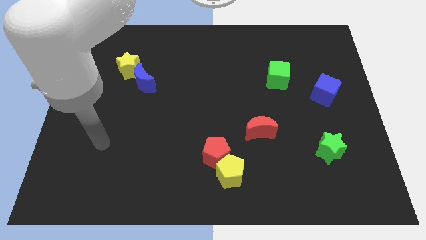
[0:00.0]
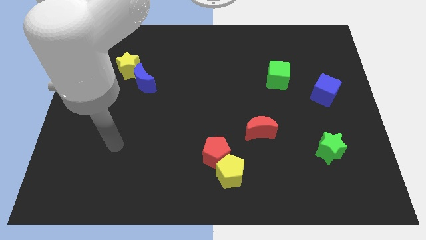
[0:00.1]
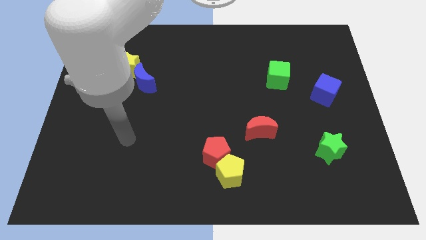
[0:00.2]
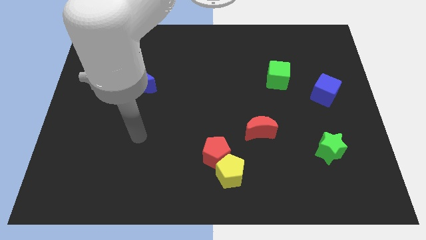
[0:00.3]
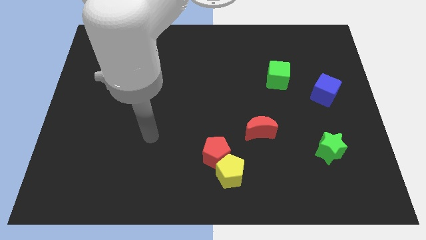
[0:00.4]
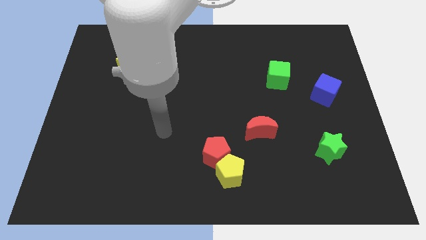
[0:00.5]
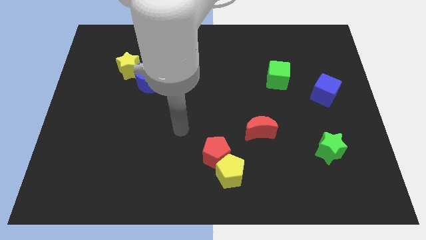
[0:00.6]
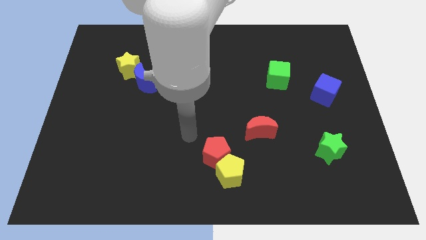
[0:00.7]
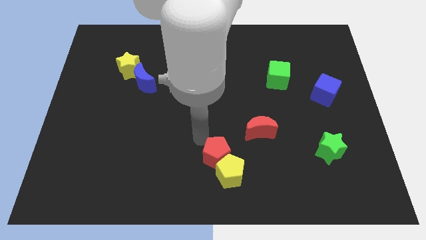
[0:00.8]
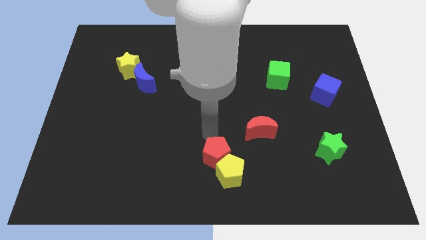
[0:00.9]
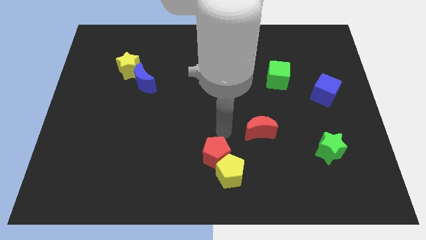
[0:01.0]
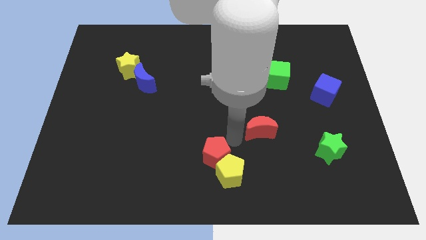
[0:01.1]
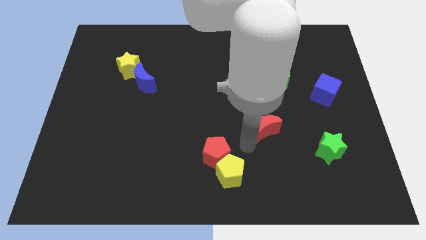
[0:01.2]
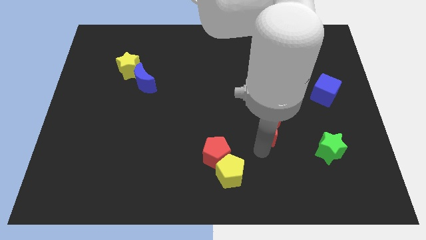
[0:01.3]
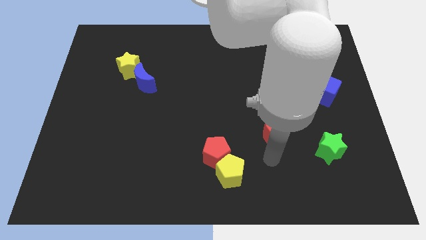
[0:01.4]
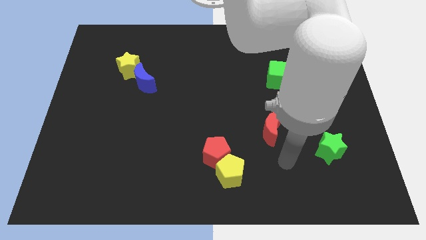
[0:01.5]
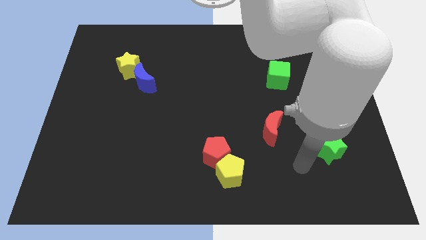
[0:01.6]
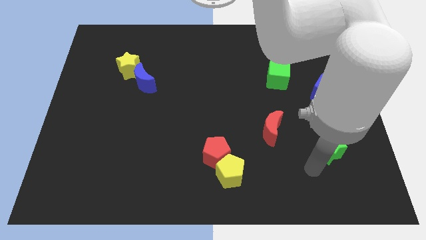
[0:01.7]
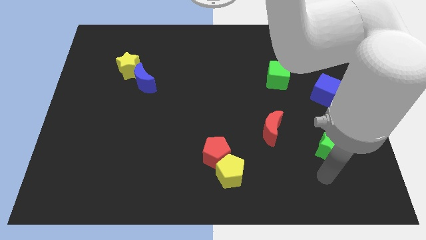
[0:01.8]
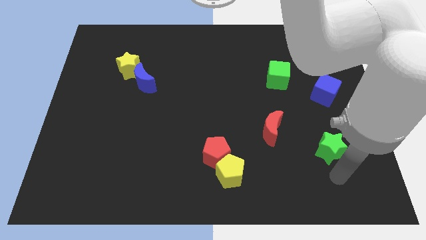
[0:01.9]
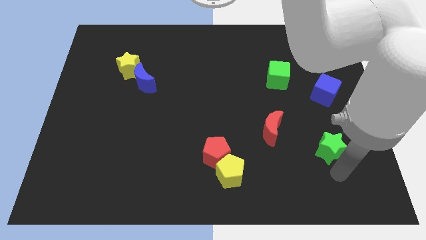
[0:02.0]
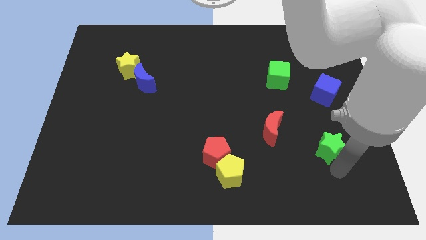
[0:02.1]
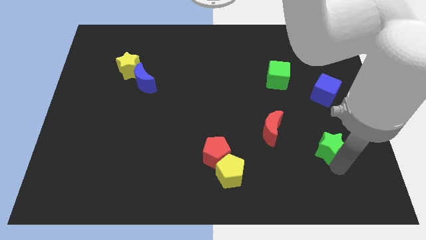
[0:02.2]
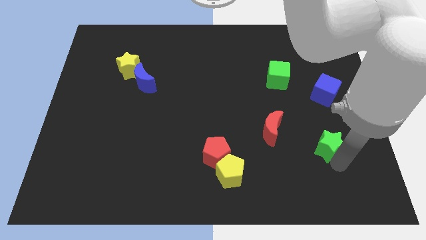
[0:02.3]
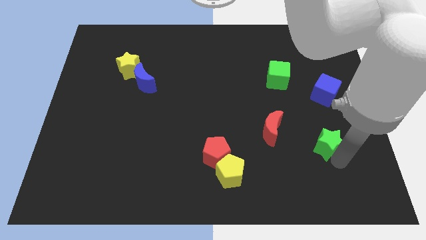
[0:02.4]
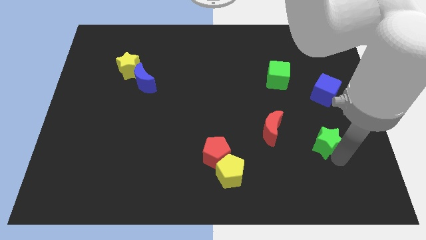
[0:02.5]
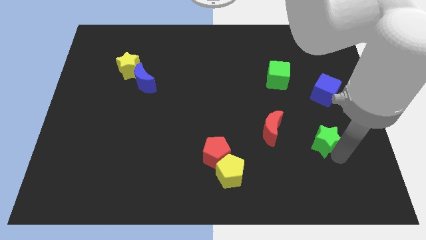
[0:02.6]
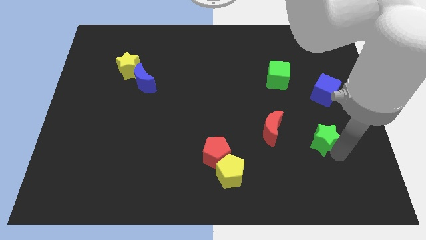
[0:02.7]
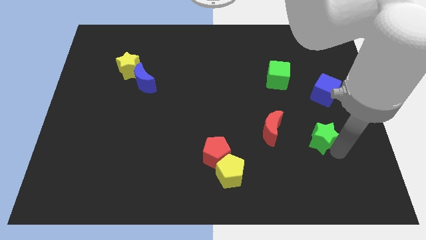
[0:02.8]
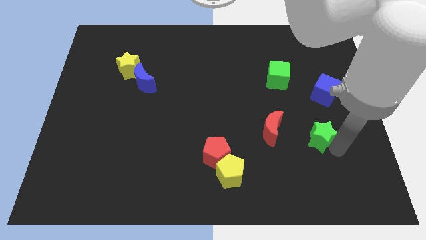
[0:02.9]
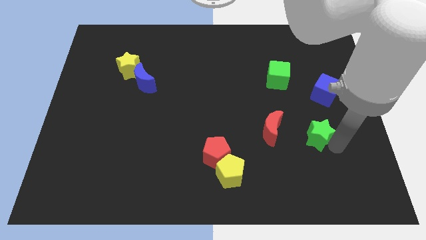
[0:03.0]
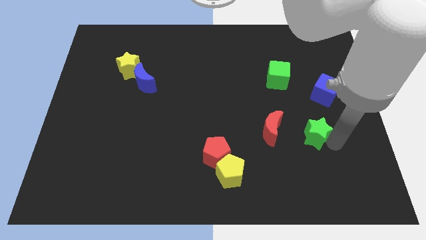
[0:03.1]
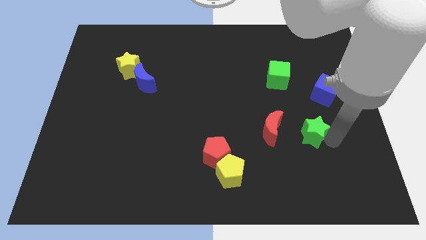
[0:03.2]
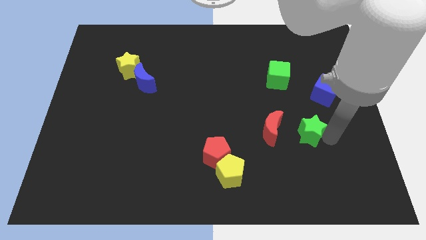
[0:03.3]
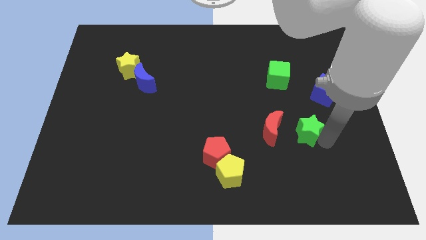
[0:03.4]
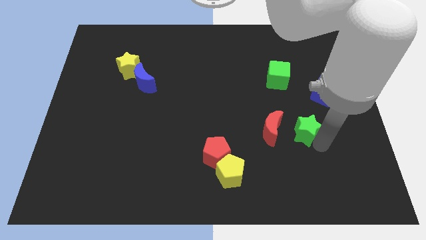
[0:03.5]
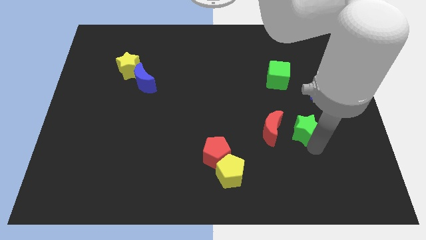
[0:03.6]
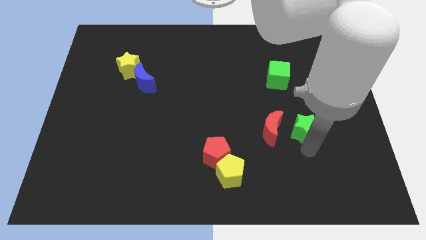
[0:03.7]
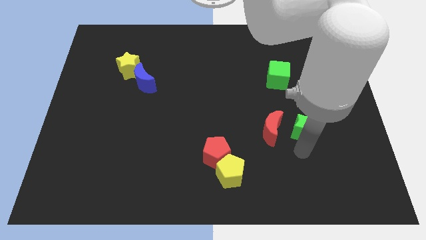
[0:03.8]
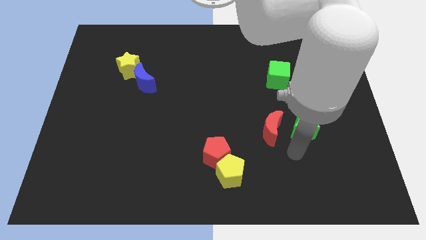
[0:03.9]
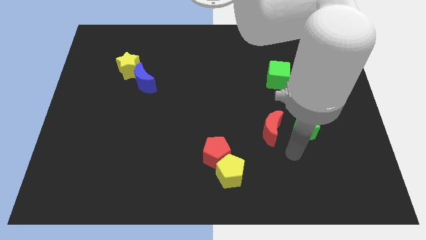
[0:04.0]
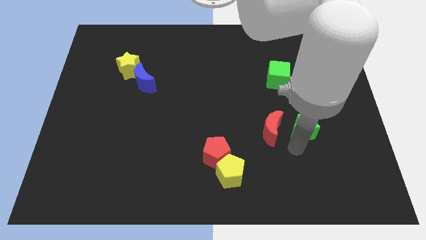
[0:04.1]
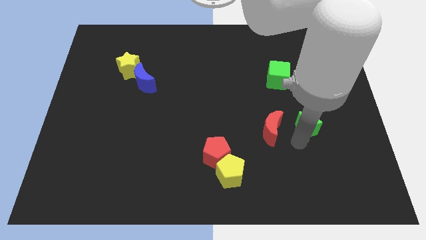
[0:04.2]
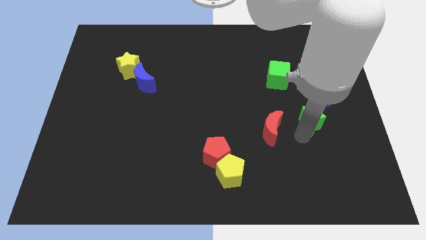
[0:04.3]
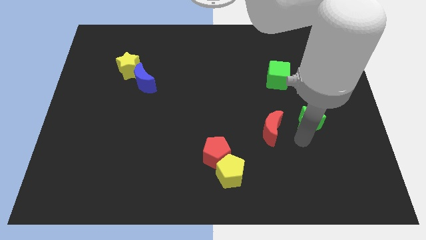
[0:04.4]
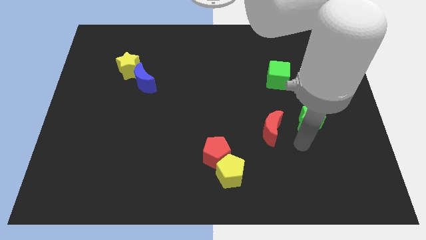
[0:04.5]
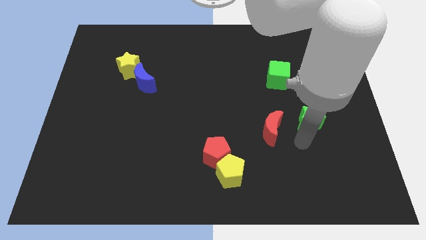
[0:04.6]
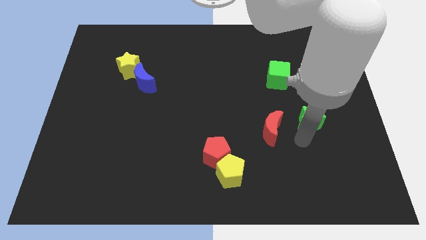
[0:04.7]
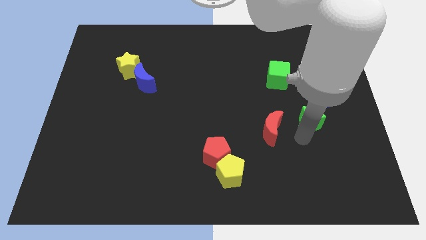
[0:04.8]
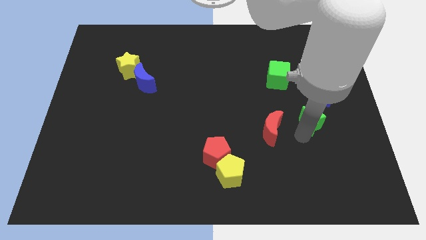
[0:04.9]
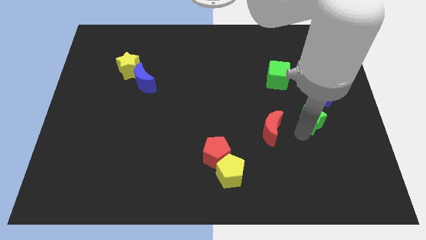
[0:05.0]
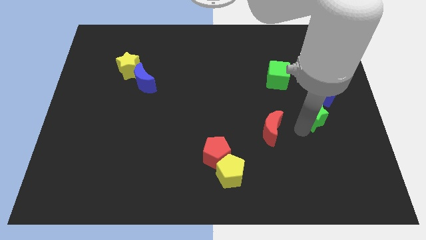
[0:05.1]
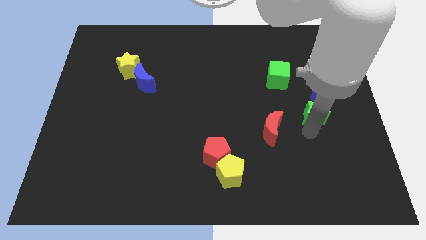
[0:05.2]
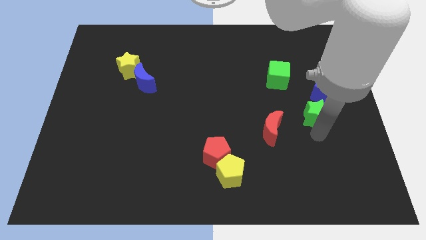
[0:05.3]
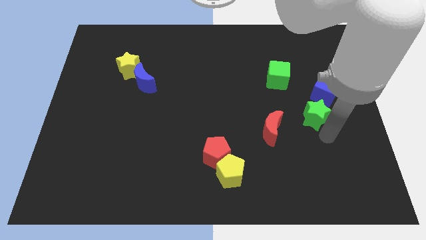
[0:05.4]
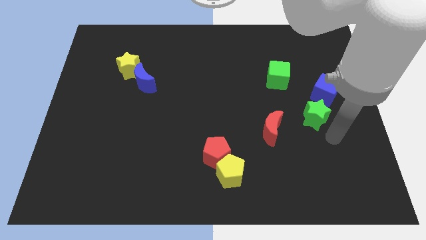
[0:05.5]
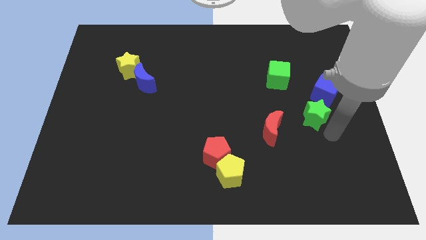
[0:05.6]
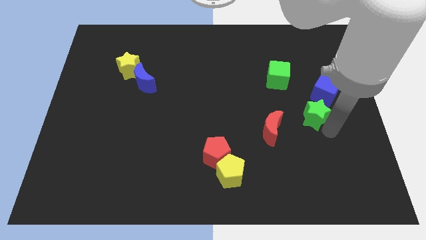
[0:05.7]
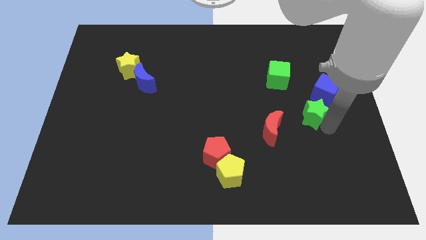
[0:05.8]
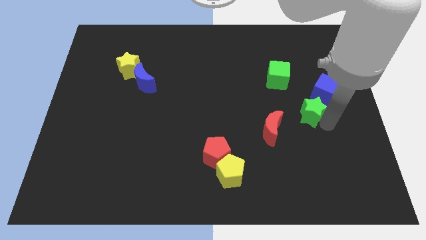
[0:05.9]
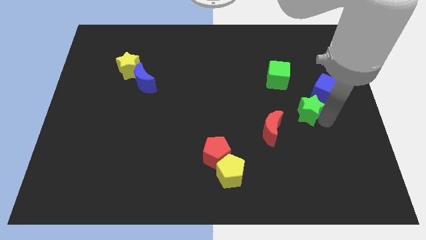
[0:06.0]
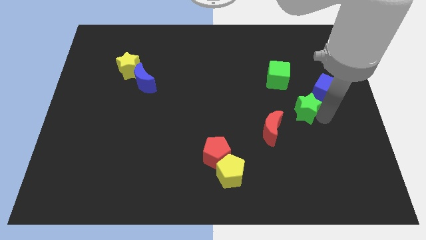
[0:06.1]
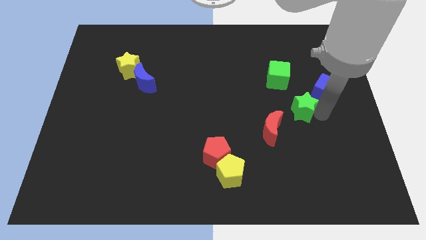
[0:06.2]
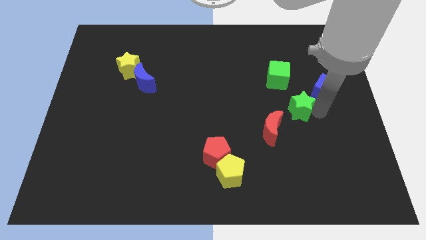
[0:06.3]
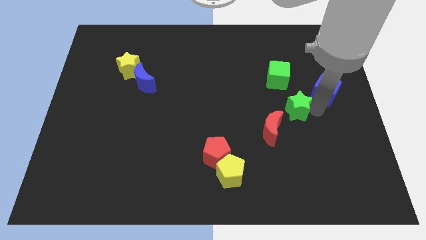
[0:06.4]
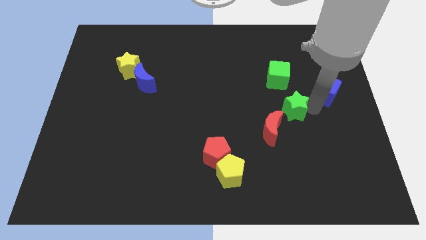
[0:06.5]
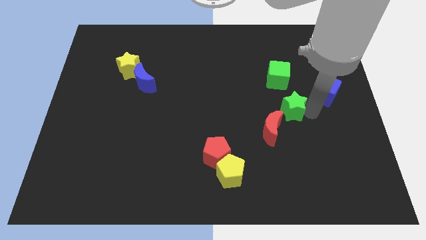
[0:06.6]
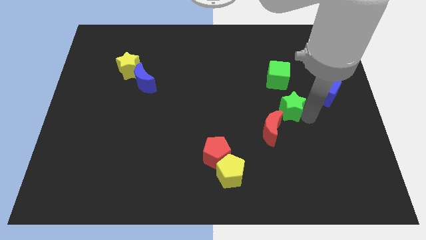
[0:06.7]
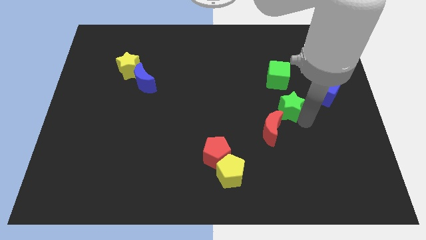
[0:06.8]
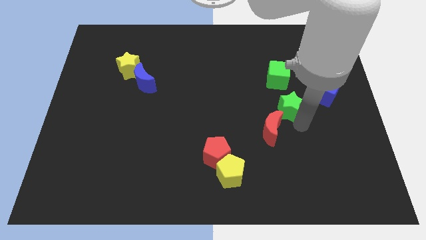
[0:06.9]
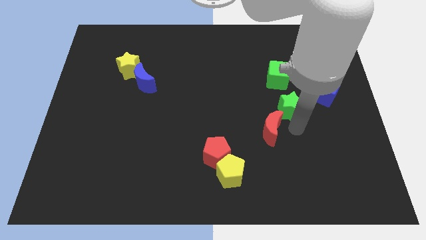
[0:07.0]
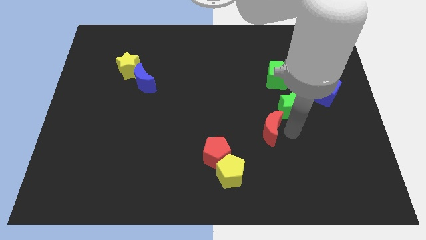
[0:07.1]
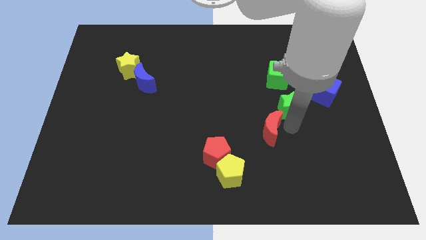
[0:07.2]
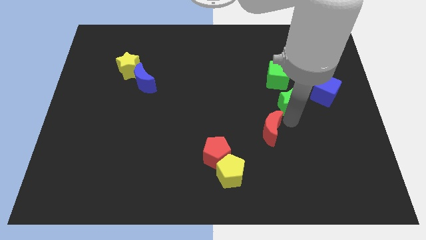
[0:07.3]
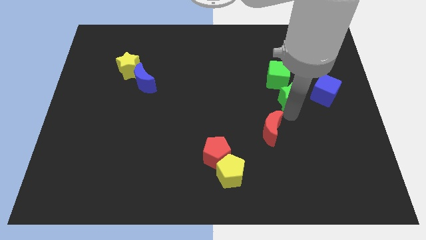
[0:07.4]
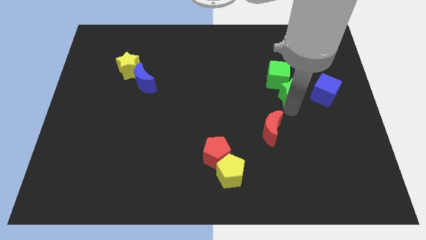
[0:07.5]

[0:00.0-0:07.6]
slide the green star close to the green cube
